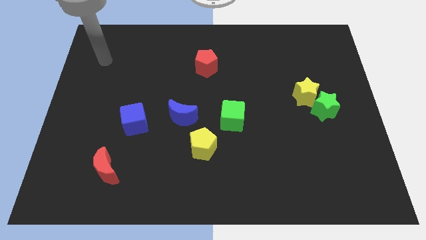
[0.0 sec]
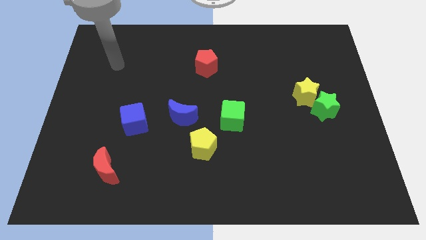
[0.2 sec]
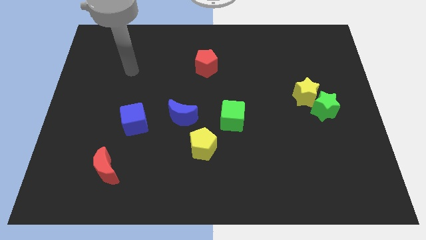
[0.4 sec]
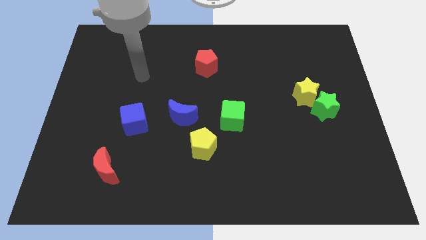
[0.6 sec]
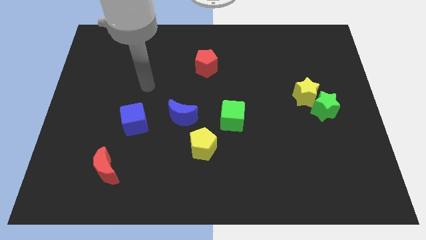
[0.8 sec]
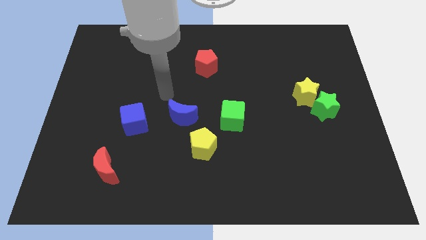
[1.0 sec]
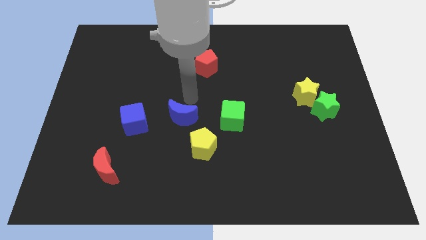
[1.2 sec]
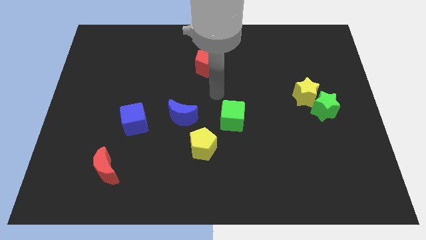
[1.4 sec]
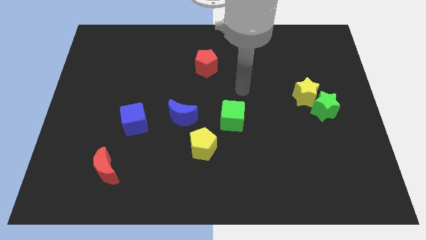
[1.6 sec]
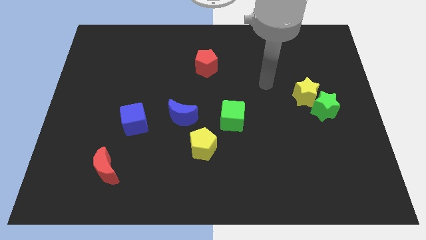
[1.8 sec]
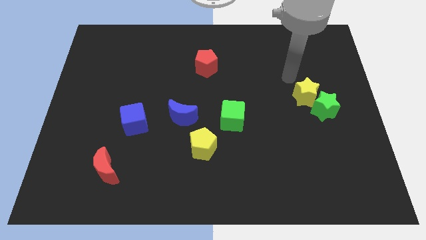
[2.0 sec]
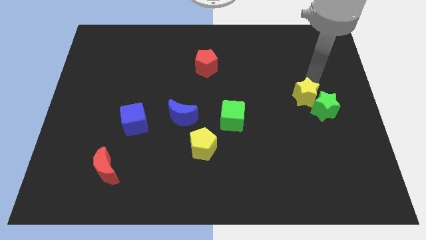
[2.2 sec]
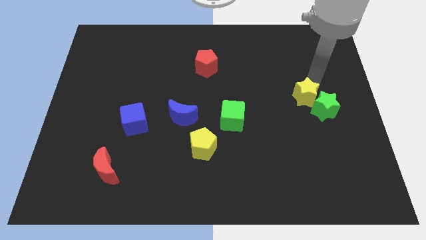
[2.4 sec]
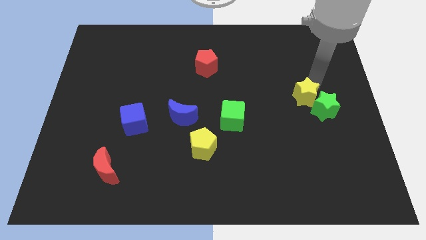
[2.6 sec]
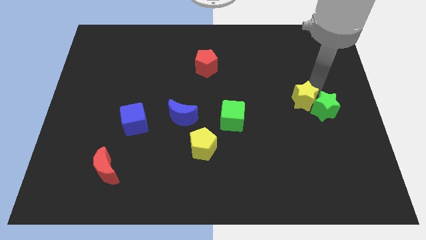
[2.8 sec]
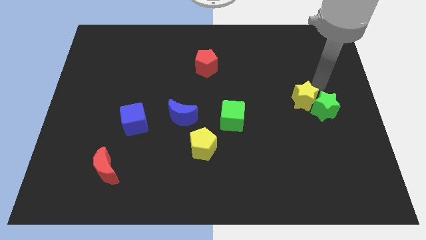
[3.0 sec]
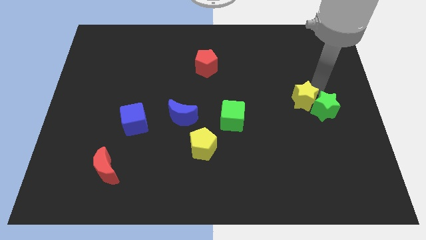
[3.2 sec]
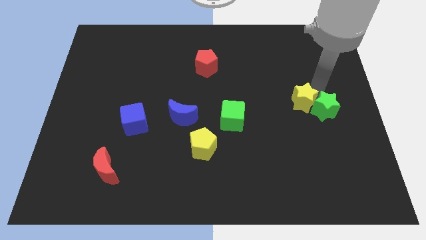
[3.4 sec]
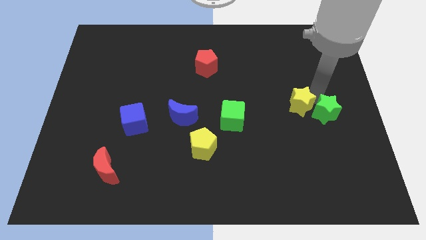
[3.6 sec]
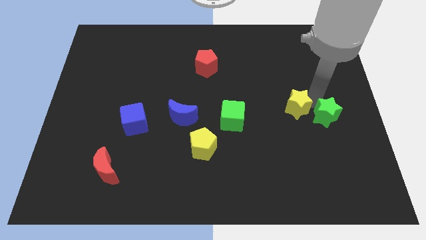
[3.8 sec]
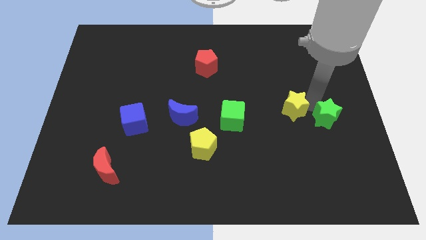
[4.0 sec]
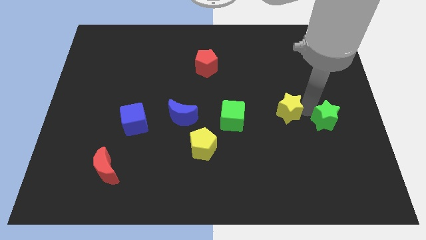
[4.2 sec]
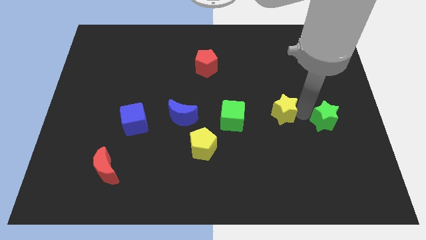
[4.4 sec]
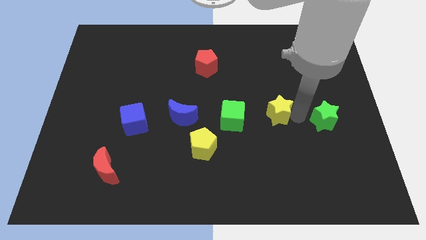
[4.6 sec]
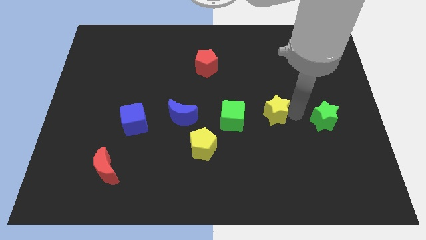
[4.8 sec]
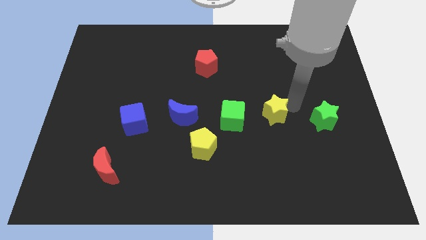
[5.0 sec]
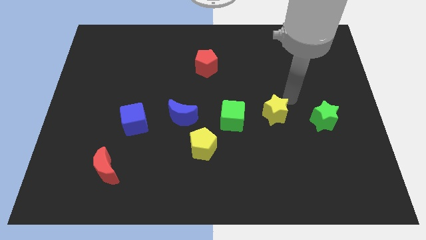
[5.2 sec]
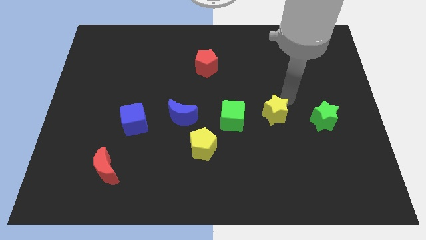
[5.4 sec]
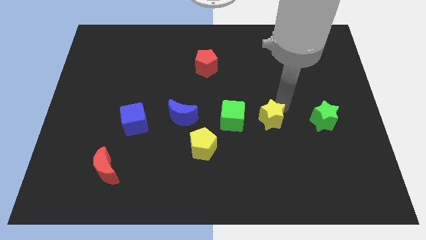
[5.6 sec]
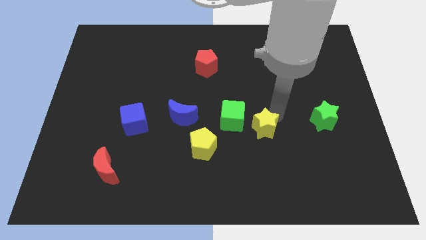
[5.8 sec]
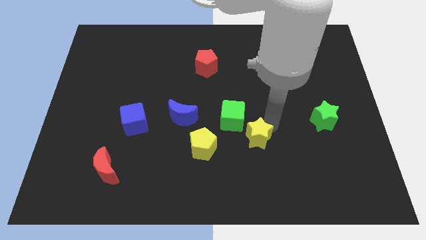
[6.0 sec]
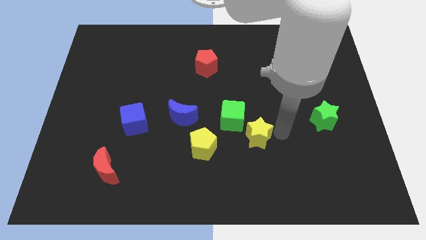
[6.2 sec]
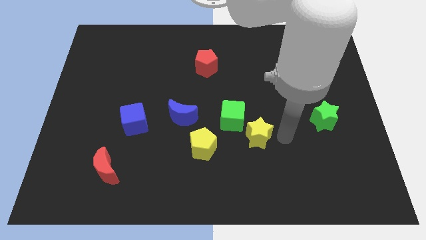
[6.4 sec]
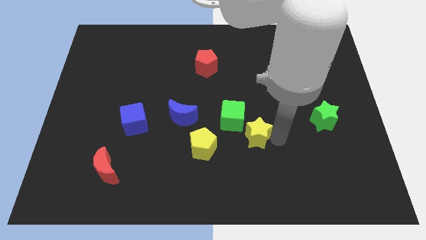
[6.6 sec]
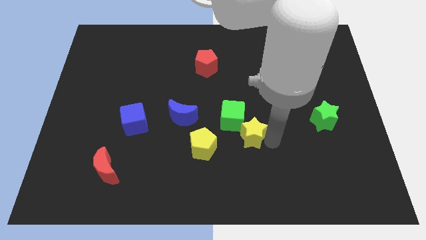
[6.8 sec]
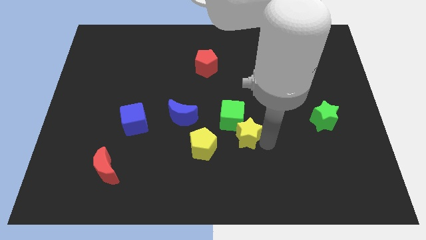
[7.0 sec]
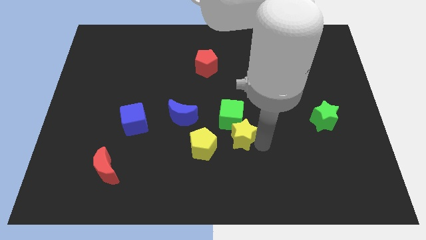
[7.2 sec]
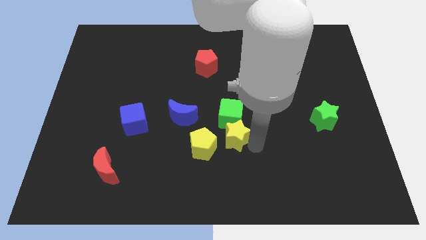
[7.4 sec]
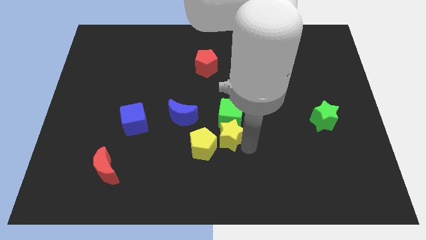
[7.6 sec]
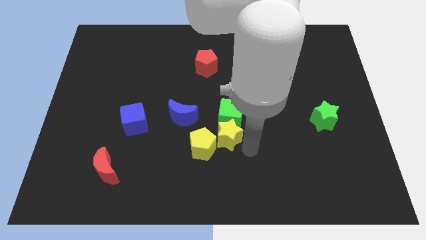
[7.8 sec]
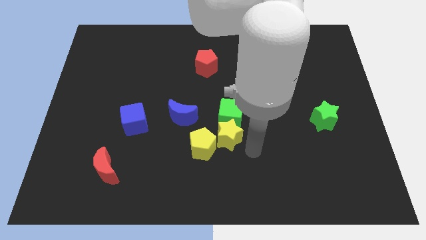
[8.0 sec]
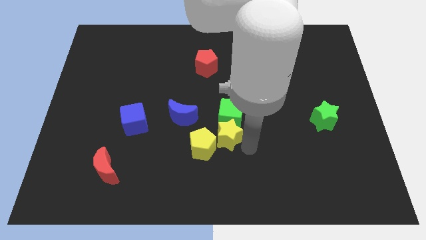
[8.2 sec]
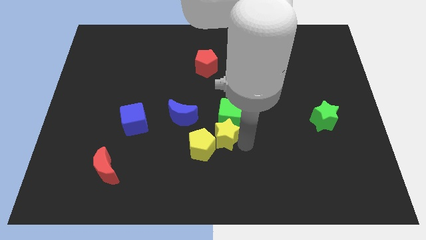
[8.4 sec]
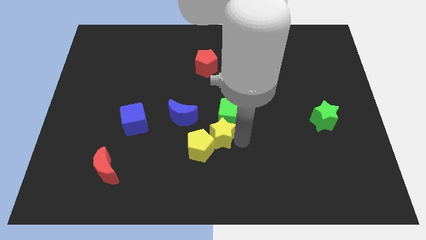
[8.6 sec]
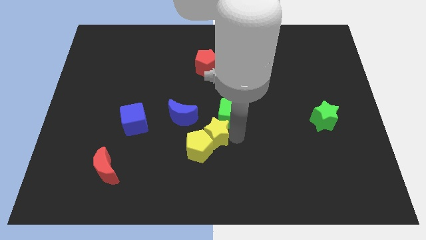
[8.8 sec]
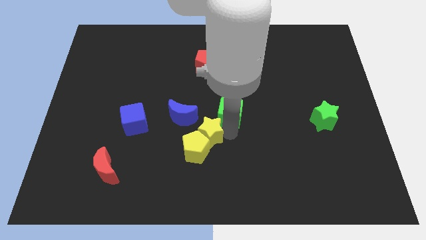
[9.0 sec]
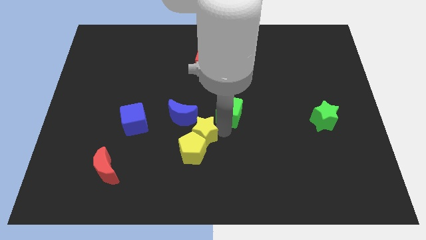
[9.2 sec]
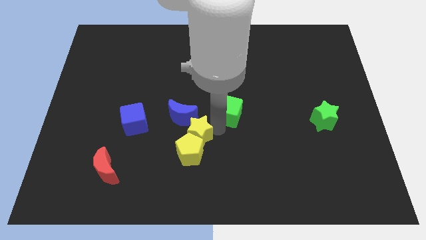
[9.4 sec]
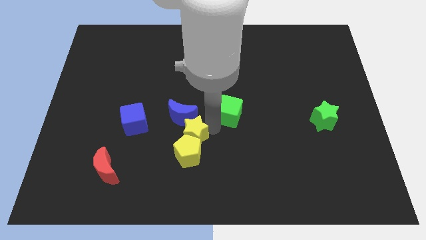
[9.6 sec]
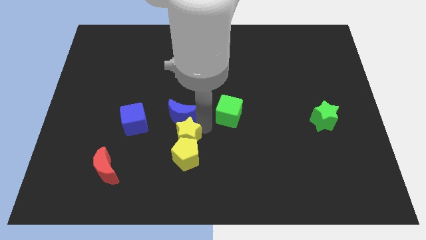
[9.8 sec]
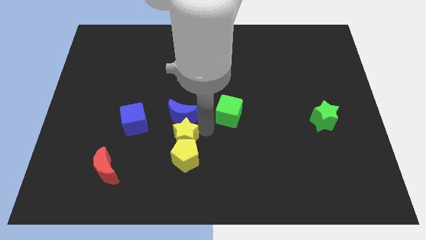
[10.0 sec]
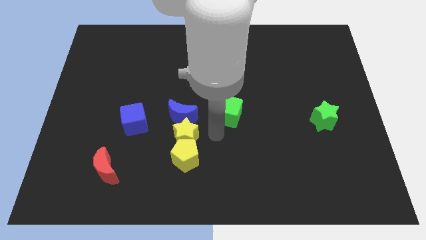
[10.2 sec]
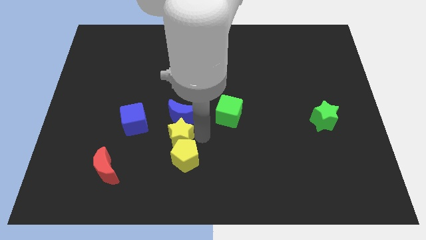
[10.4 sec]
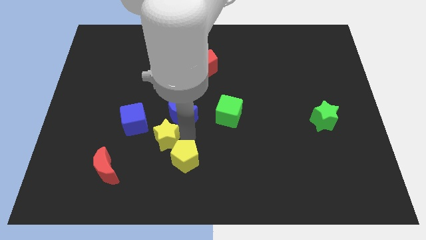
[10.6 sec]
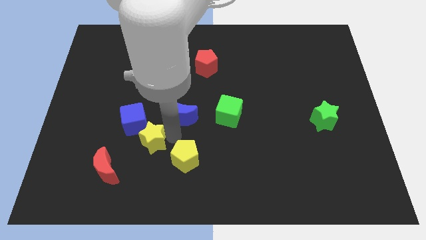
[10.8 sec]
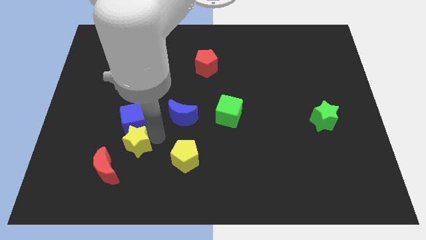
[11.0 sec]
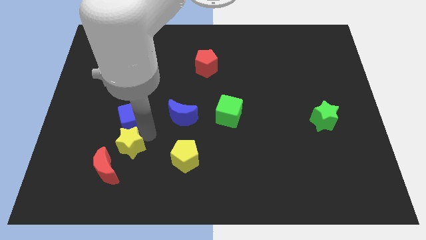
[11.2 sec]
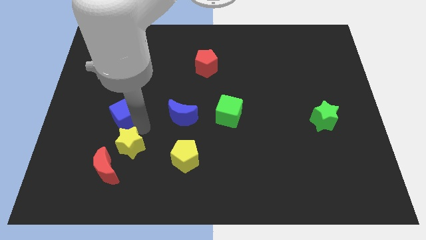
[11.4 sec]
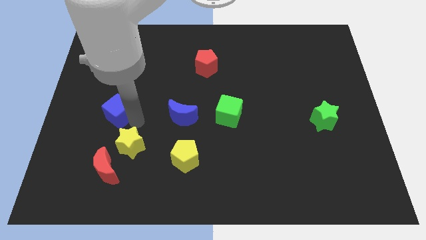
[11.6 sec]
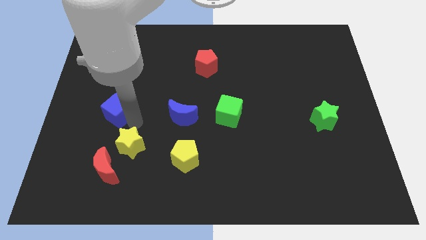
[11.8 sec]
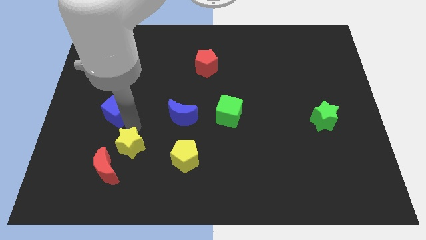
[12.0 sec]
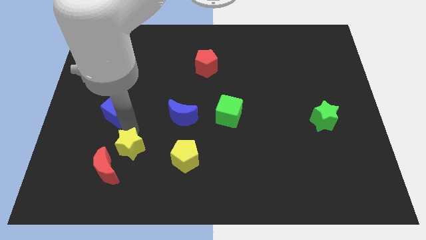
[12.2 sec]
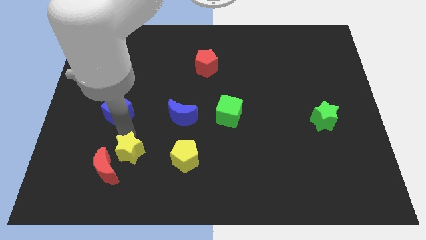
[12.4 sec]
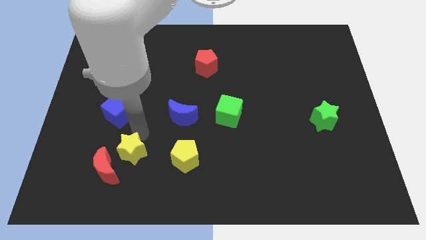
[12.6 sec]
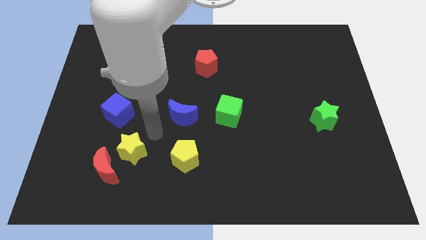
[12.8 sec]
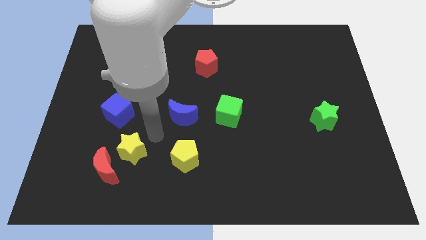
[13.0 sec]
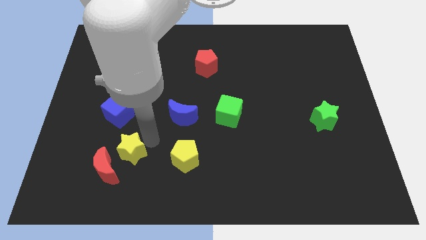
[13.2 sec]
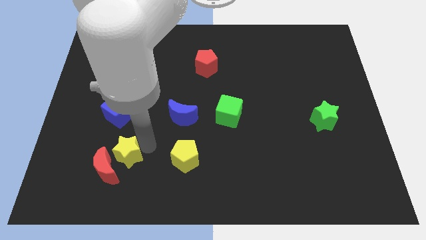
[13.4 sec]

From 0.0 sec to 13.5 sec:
slide the yellow star towards the red moon
